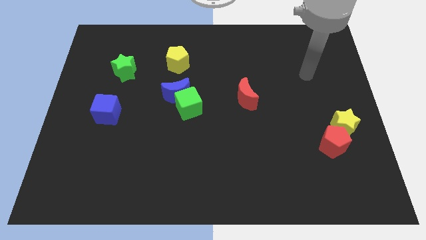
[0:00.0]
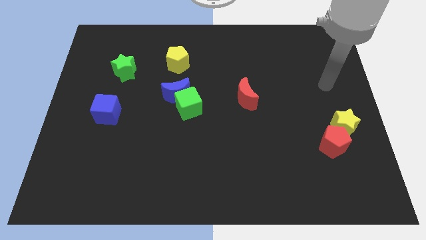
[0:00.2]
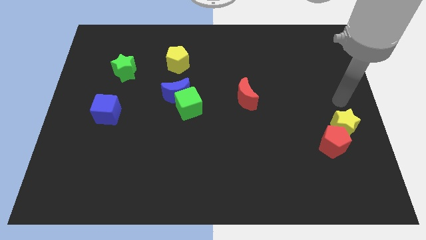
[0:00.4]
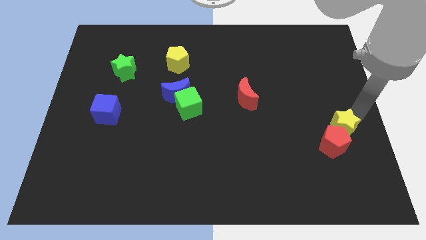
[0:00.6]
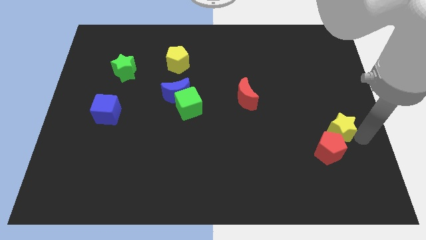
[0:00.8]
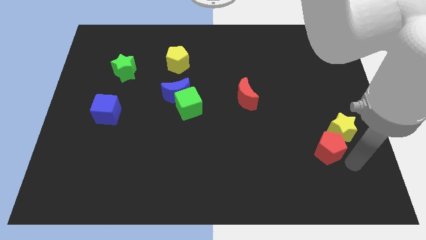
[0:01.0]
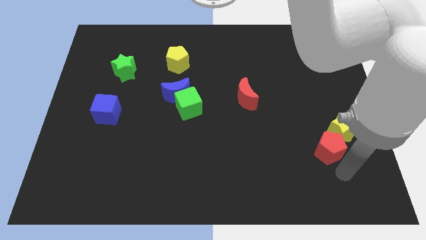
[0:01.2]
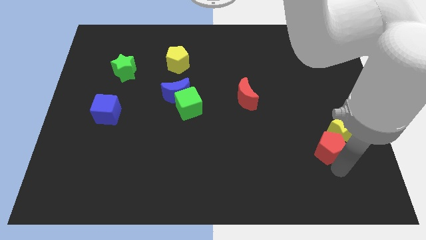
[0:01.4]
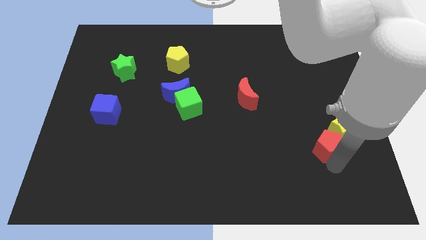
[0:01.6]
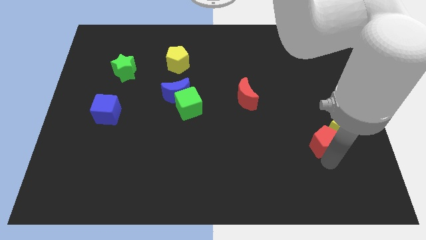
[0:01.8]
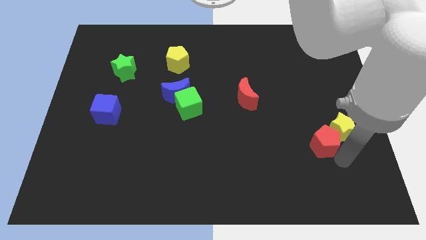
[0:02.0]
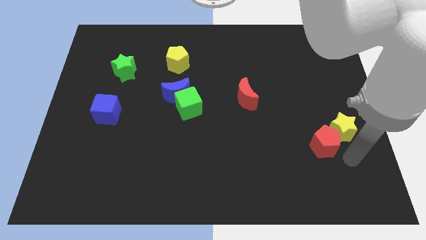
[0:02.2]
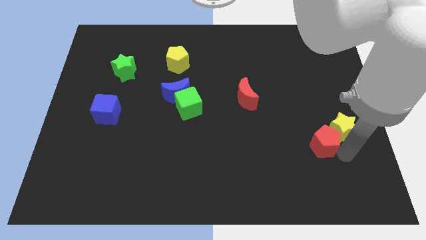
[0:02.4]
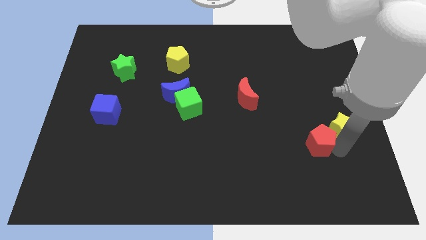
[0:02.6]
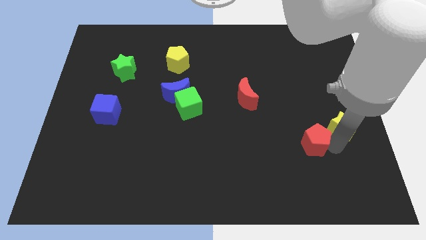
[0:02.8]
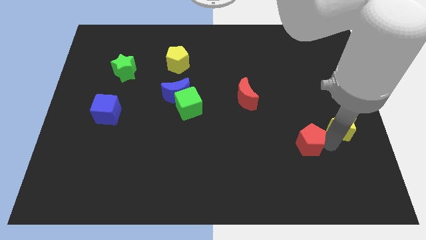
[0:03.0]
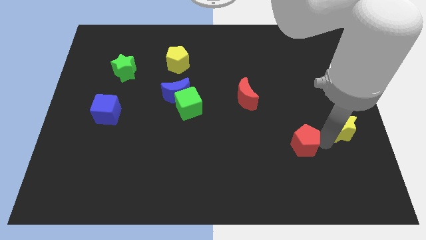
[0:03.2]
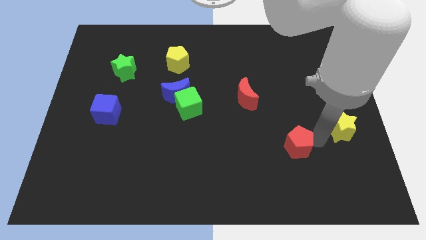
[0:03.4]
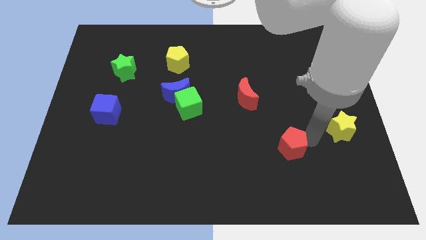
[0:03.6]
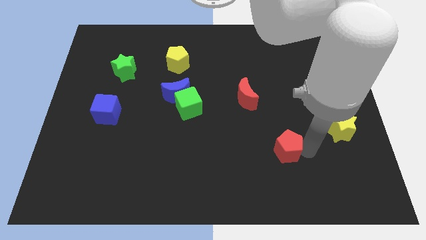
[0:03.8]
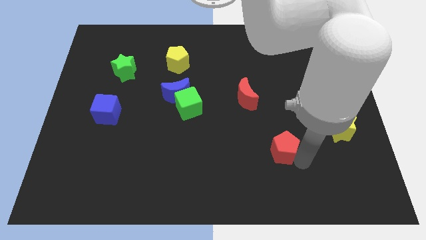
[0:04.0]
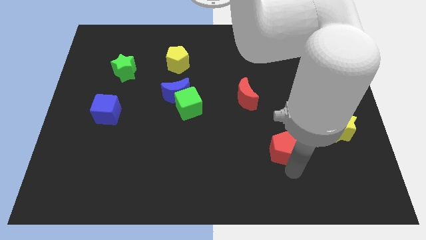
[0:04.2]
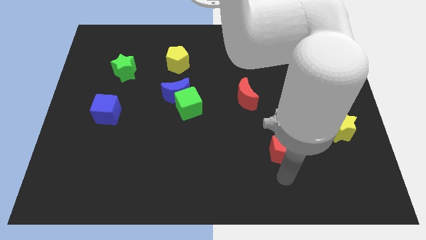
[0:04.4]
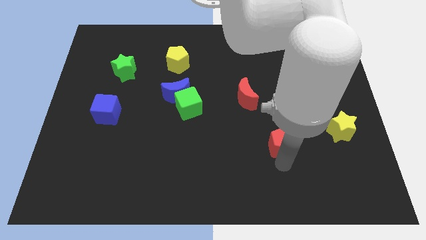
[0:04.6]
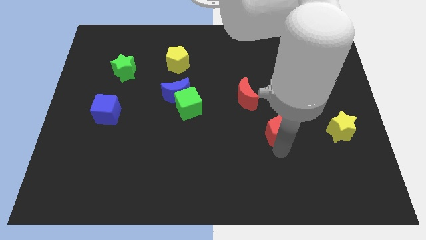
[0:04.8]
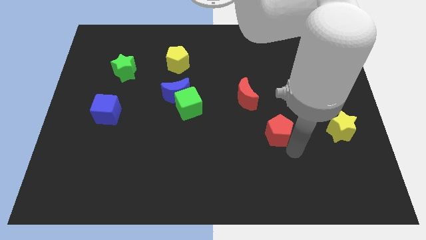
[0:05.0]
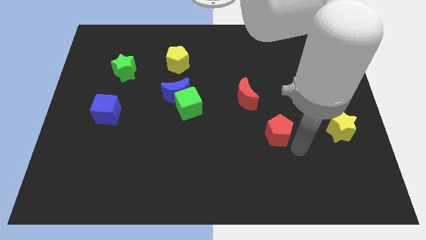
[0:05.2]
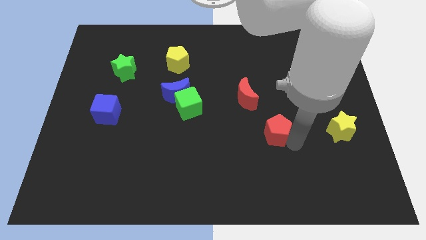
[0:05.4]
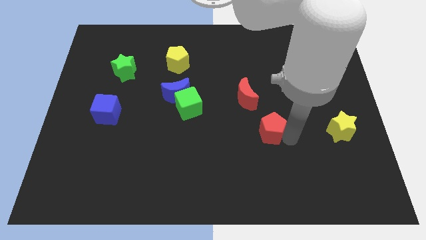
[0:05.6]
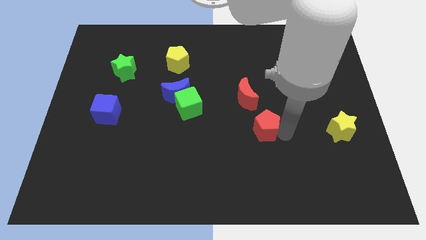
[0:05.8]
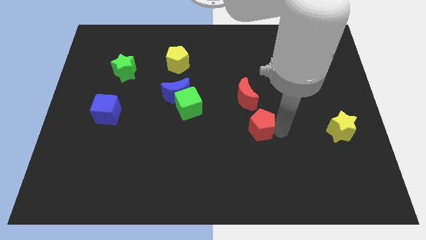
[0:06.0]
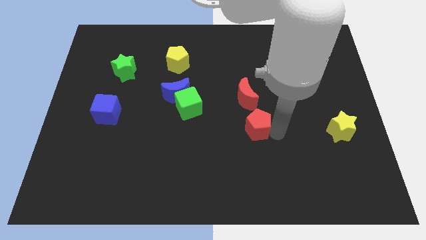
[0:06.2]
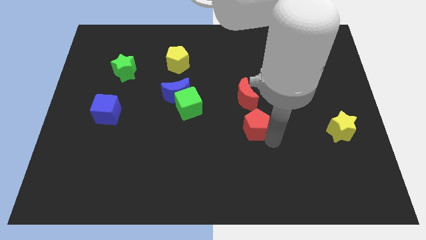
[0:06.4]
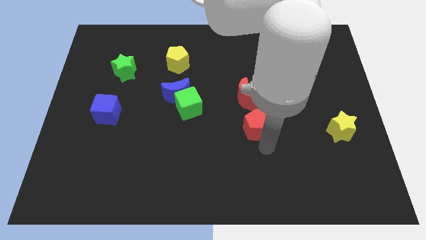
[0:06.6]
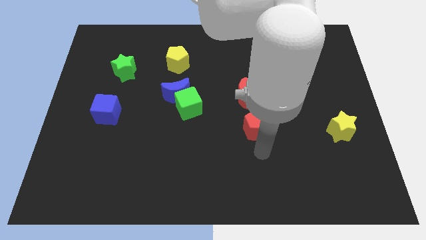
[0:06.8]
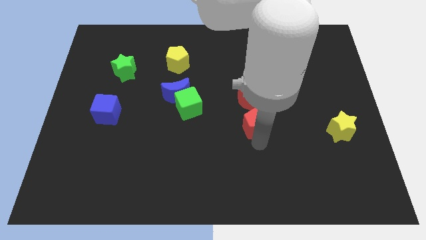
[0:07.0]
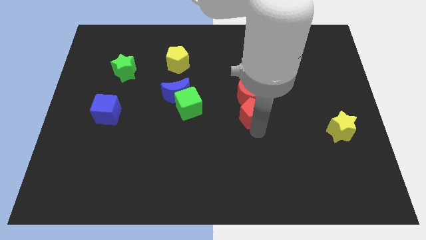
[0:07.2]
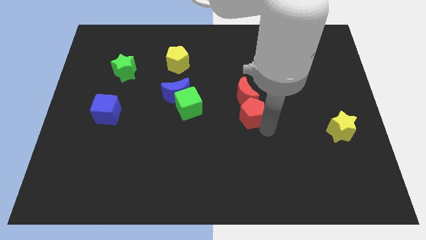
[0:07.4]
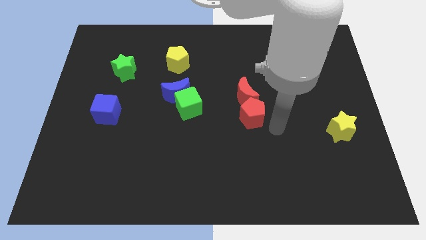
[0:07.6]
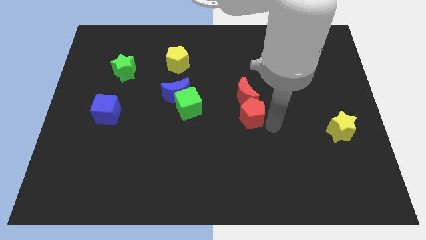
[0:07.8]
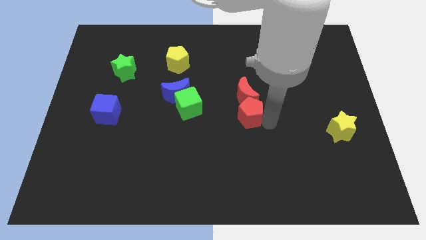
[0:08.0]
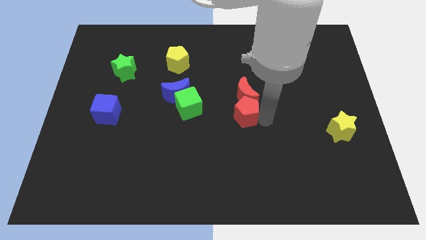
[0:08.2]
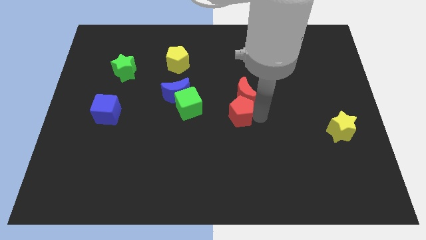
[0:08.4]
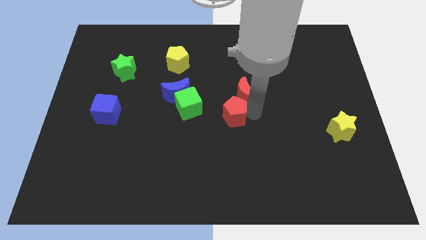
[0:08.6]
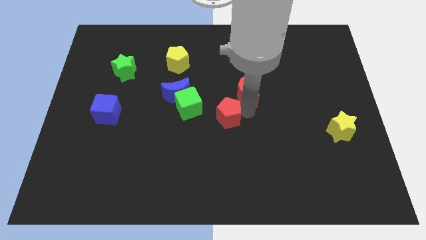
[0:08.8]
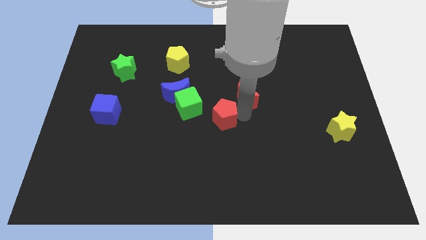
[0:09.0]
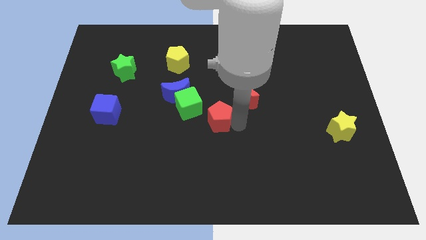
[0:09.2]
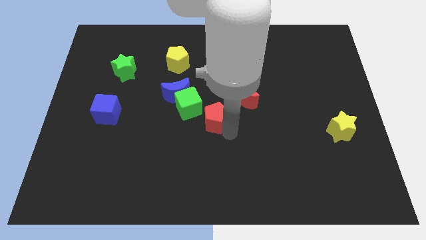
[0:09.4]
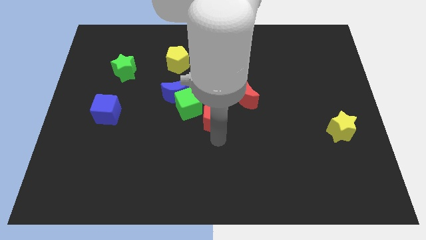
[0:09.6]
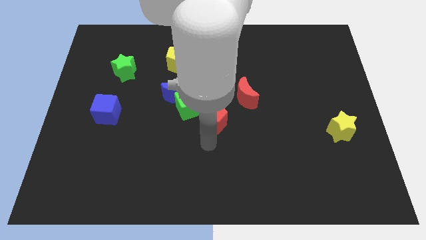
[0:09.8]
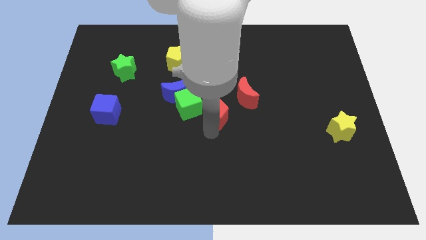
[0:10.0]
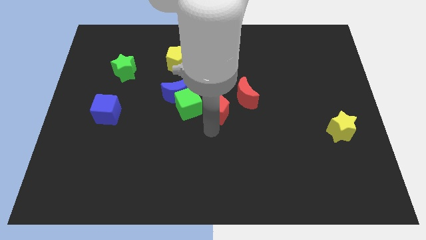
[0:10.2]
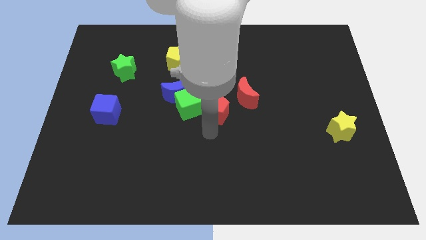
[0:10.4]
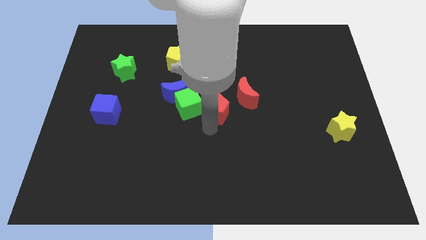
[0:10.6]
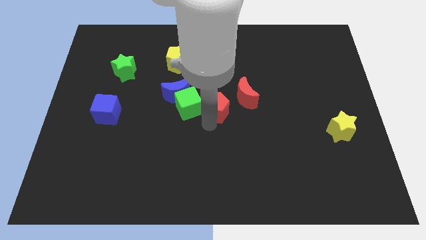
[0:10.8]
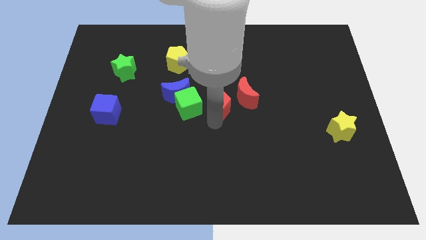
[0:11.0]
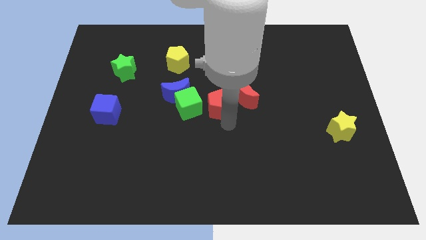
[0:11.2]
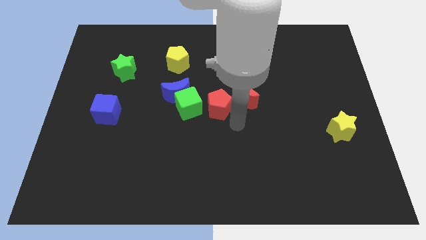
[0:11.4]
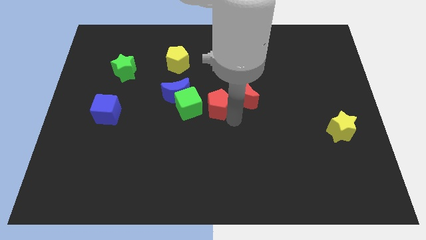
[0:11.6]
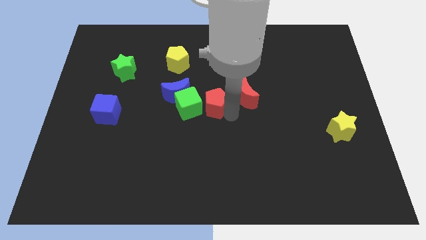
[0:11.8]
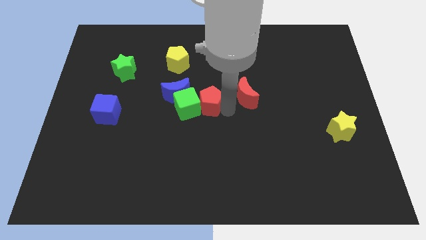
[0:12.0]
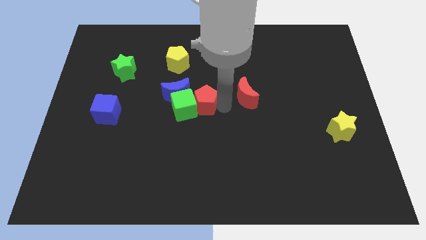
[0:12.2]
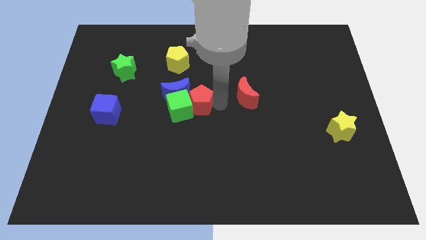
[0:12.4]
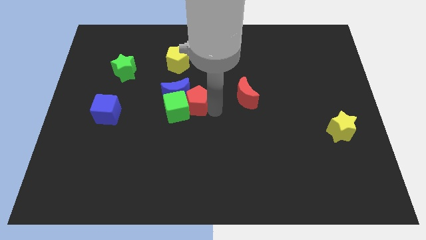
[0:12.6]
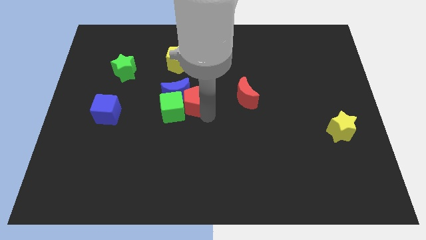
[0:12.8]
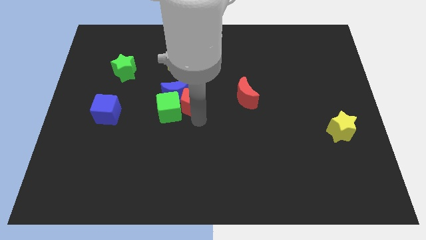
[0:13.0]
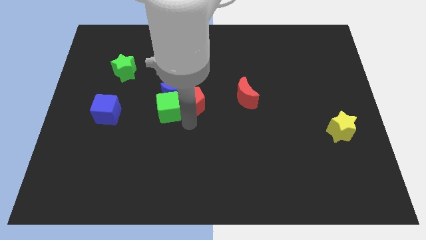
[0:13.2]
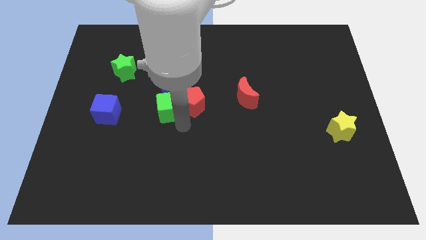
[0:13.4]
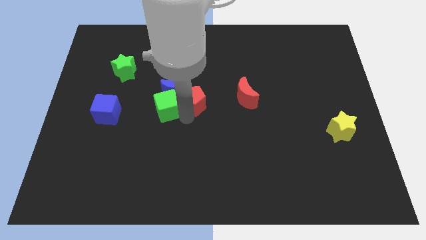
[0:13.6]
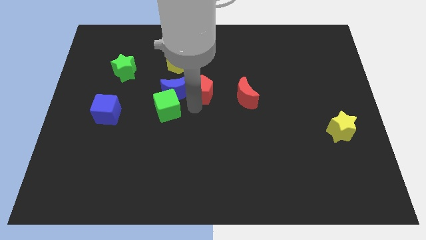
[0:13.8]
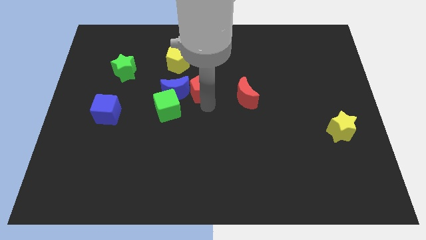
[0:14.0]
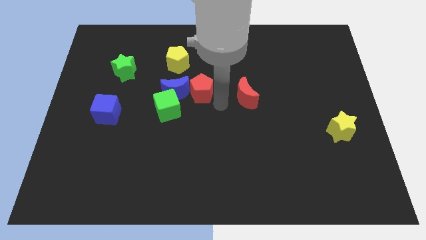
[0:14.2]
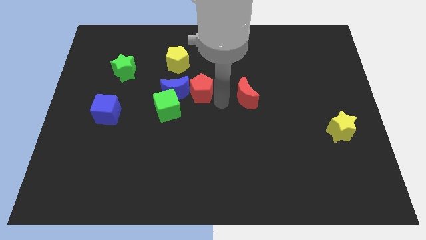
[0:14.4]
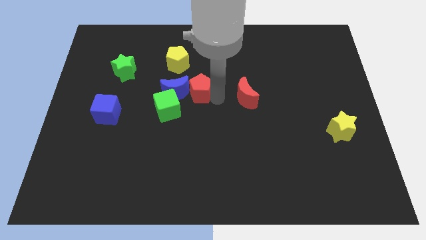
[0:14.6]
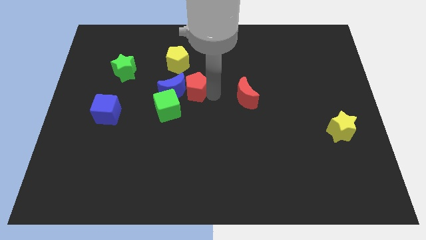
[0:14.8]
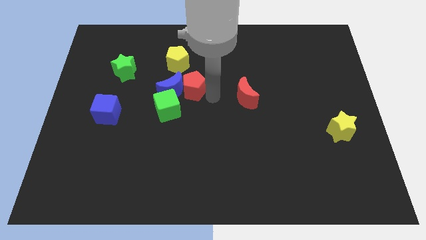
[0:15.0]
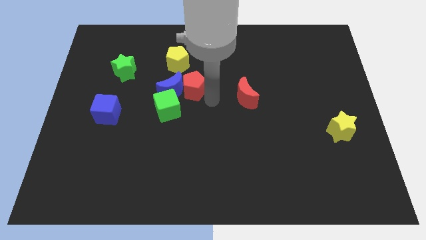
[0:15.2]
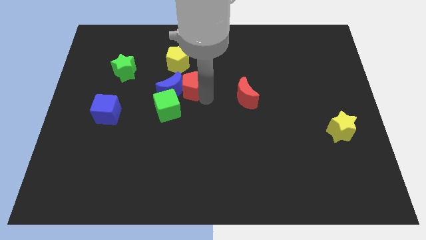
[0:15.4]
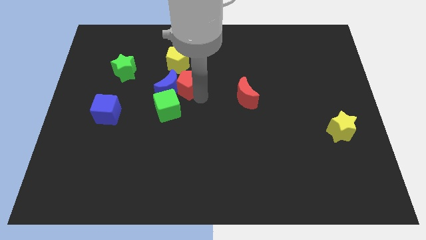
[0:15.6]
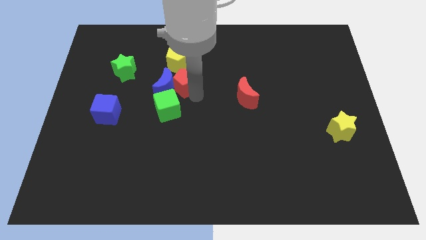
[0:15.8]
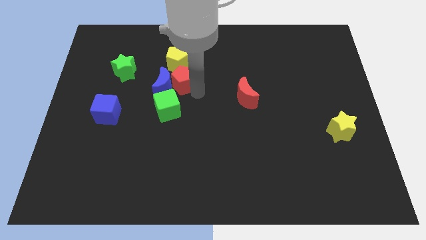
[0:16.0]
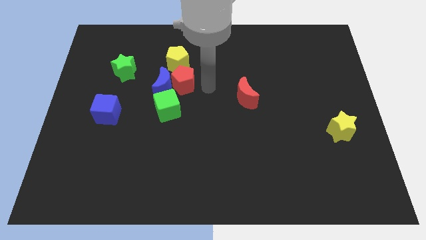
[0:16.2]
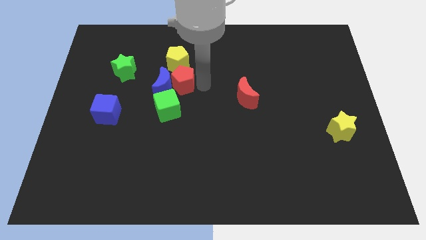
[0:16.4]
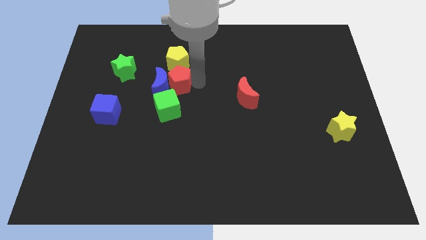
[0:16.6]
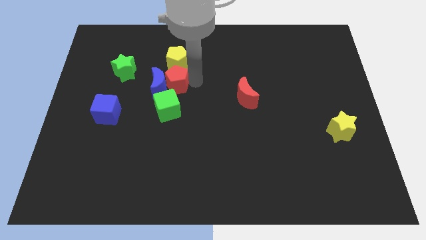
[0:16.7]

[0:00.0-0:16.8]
put the red pentagon diagonally down and to the left of the yellow pentagon

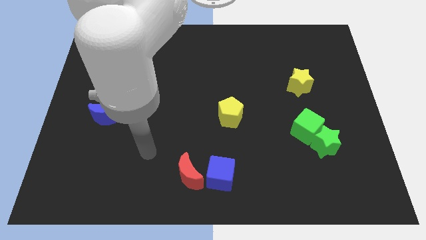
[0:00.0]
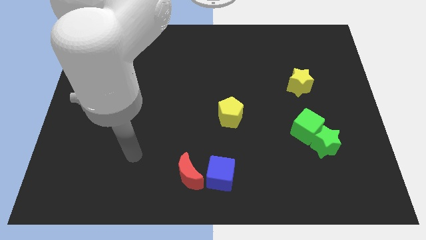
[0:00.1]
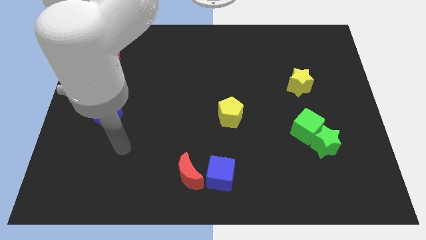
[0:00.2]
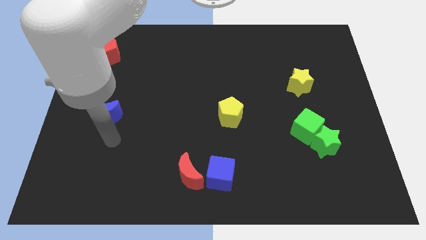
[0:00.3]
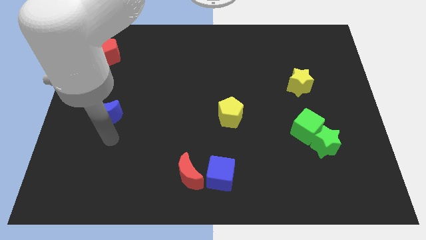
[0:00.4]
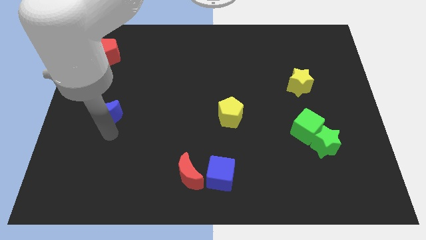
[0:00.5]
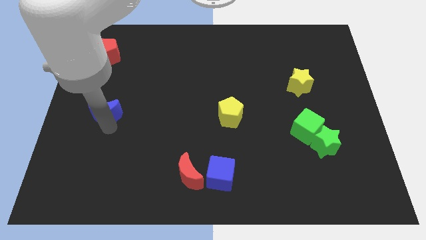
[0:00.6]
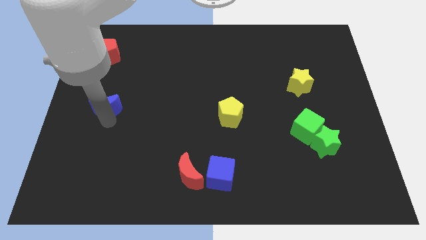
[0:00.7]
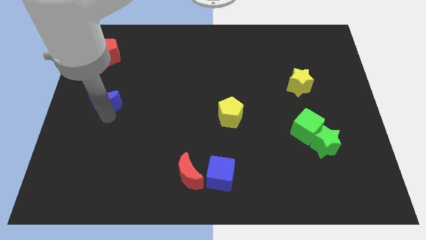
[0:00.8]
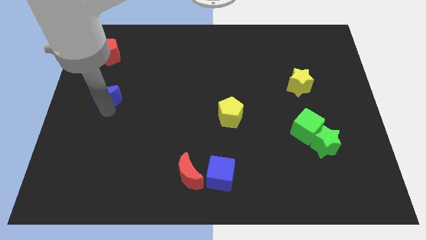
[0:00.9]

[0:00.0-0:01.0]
slide the blue moon to the bottom side of the red pentagon
